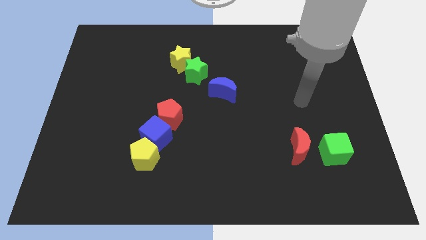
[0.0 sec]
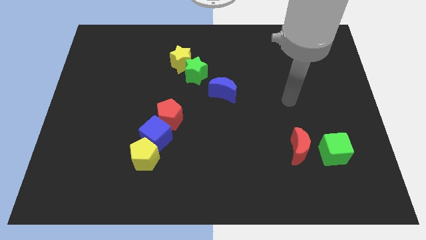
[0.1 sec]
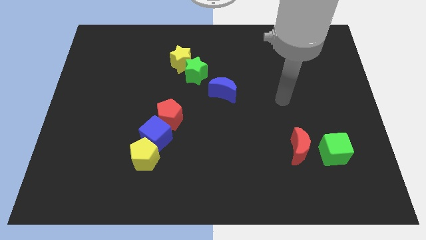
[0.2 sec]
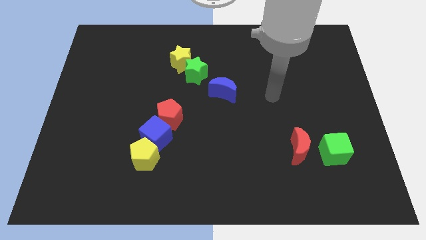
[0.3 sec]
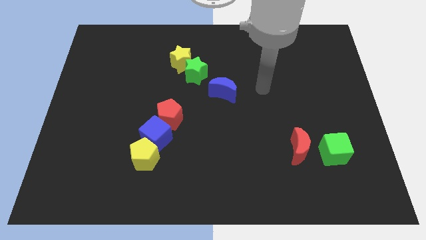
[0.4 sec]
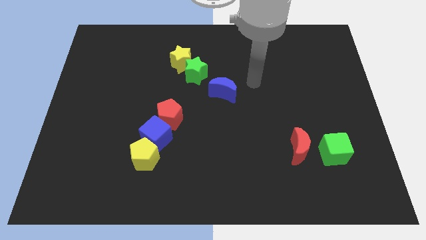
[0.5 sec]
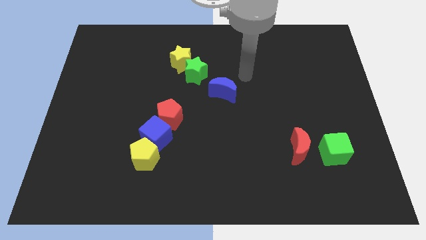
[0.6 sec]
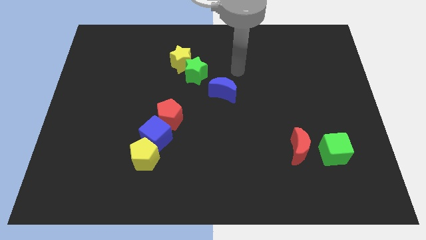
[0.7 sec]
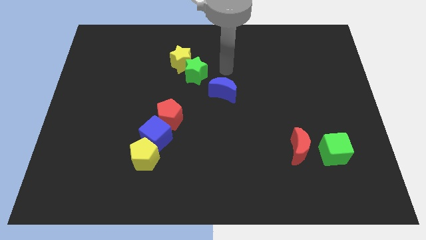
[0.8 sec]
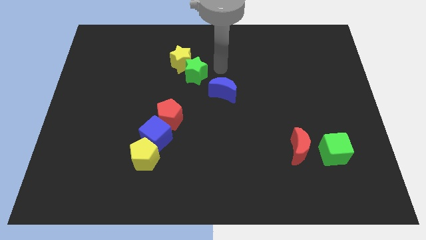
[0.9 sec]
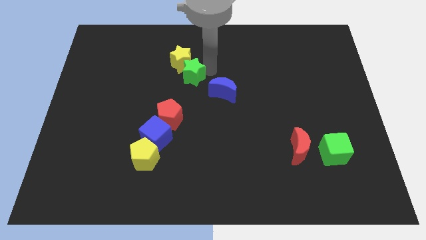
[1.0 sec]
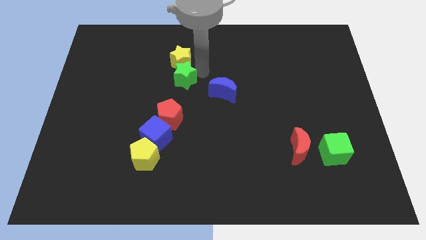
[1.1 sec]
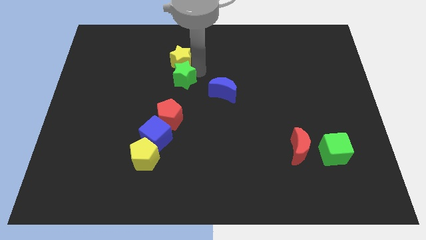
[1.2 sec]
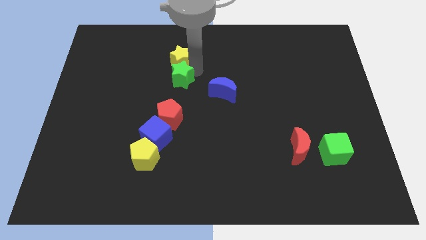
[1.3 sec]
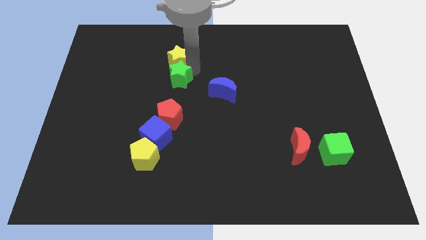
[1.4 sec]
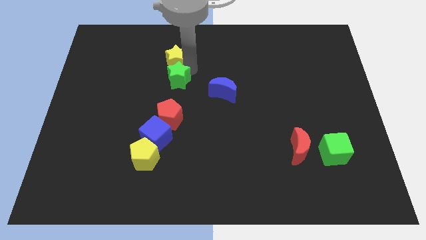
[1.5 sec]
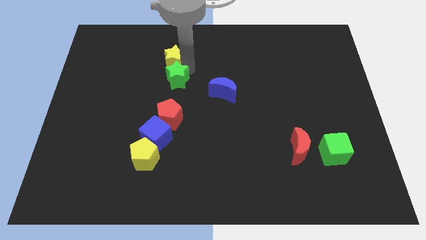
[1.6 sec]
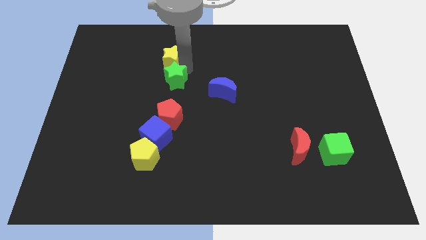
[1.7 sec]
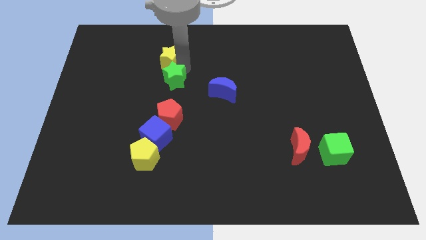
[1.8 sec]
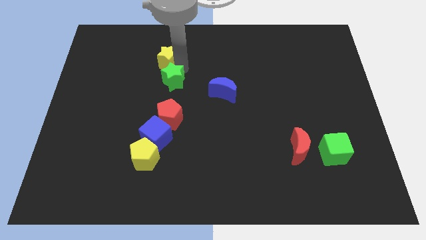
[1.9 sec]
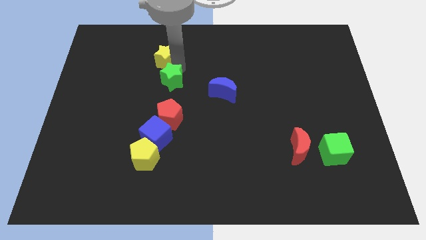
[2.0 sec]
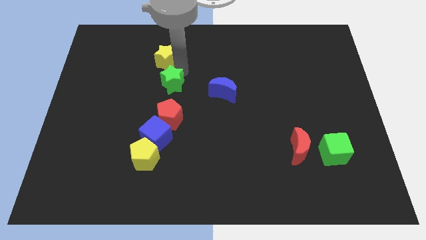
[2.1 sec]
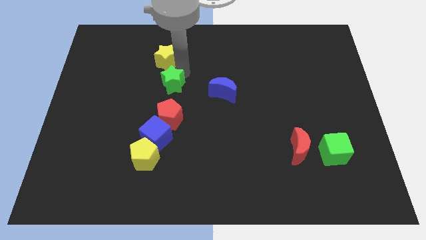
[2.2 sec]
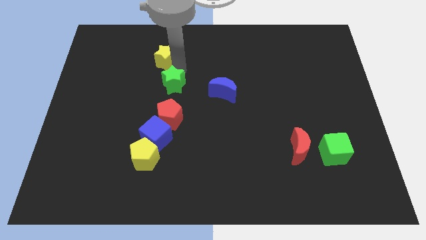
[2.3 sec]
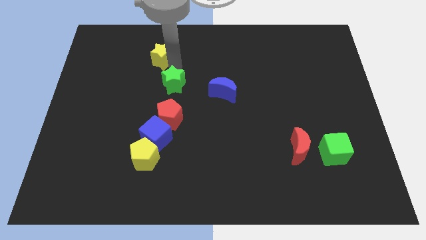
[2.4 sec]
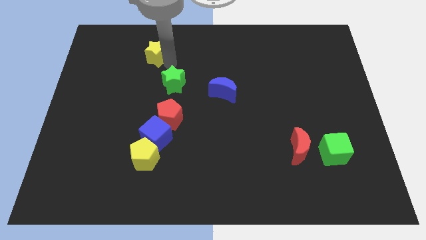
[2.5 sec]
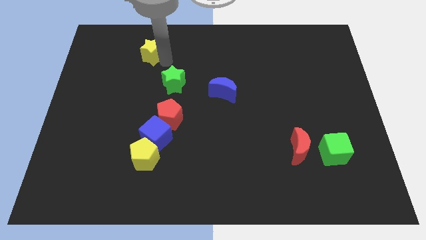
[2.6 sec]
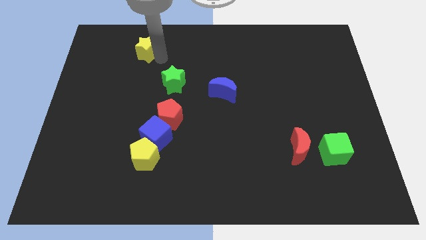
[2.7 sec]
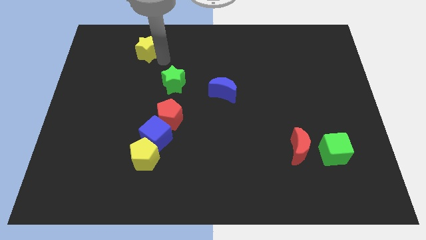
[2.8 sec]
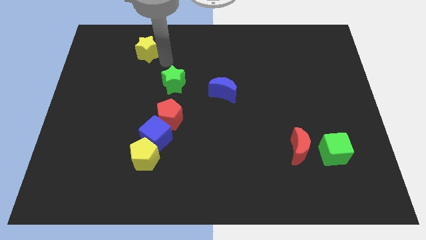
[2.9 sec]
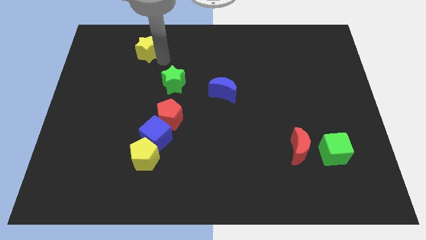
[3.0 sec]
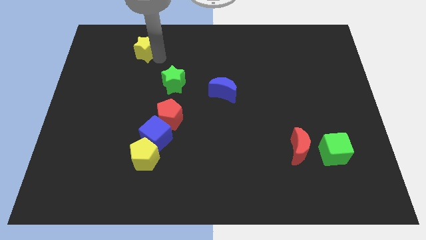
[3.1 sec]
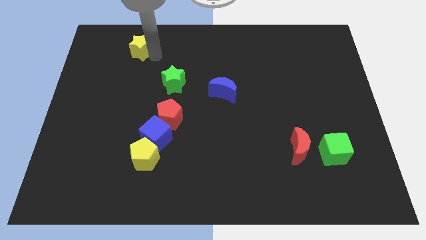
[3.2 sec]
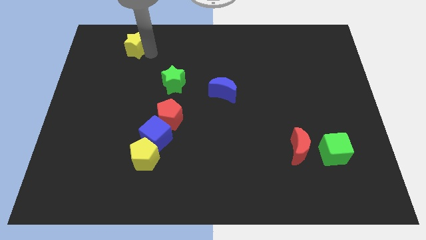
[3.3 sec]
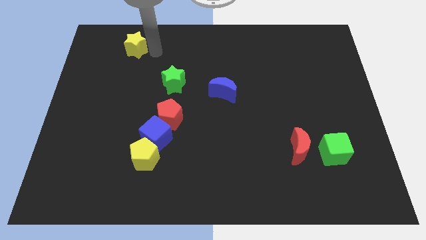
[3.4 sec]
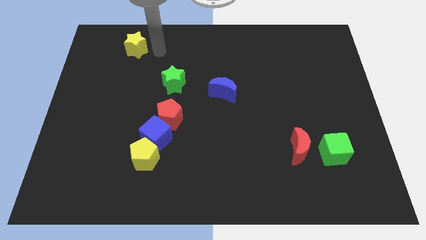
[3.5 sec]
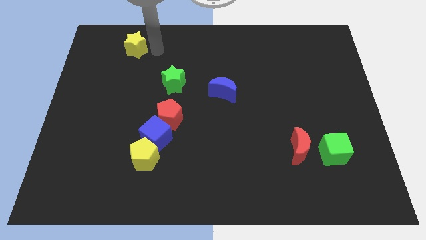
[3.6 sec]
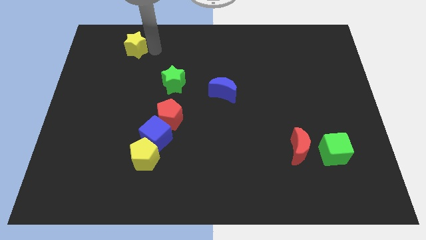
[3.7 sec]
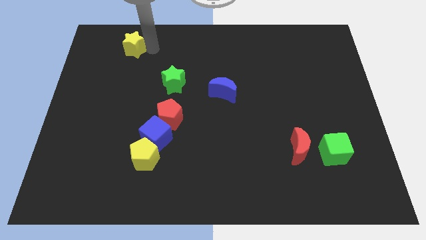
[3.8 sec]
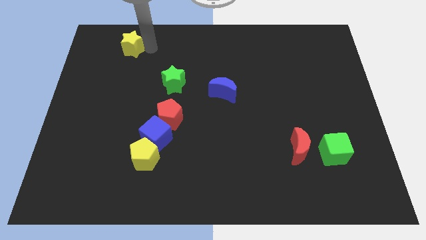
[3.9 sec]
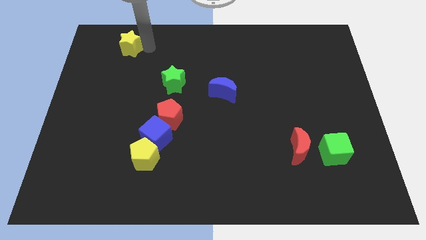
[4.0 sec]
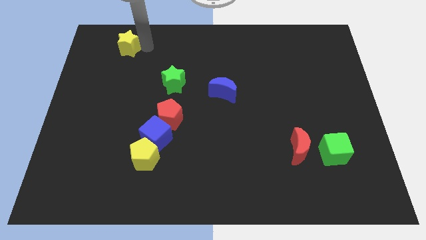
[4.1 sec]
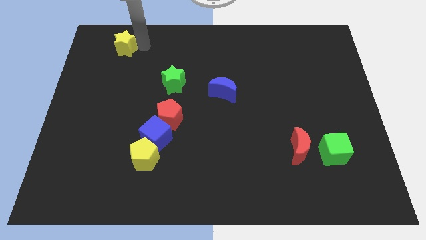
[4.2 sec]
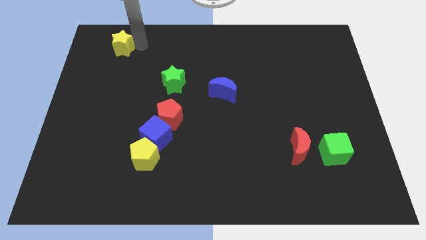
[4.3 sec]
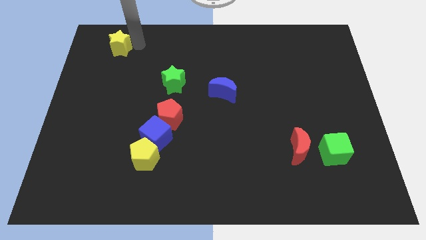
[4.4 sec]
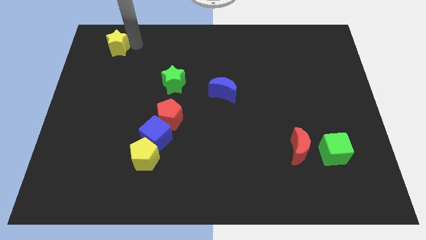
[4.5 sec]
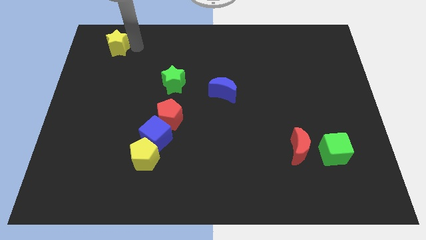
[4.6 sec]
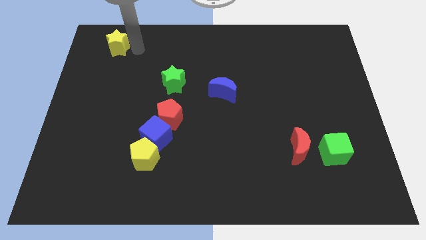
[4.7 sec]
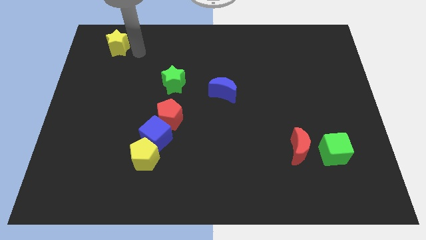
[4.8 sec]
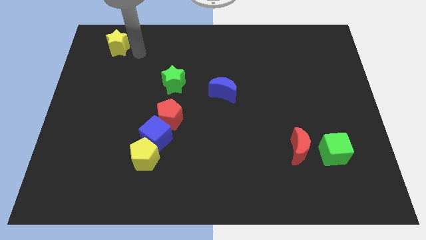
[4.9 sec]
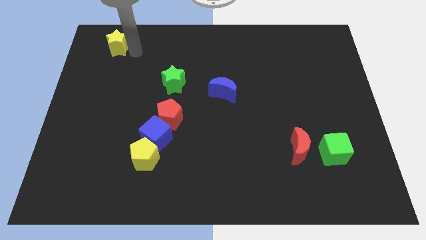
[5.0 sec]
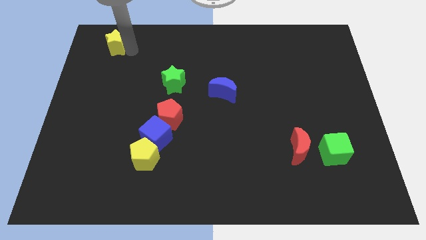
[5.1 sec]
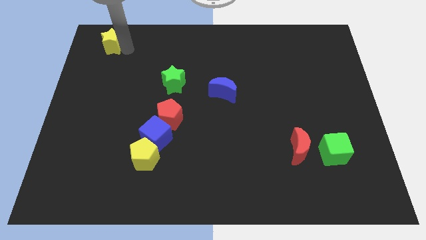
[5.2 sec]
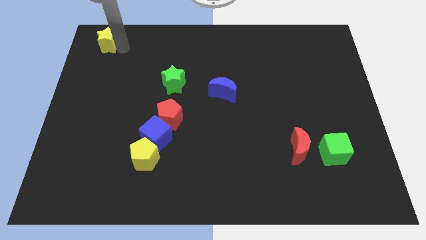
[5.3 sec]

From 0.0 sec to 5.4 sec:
move the yellow star to the top left corner

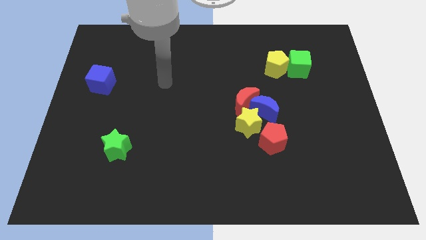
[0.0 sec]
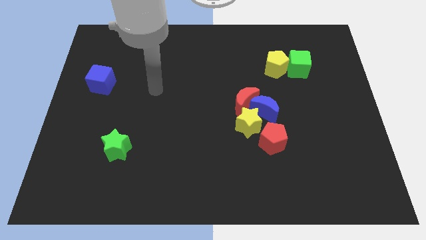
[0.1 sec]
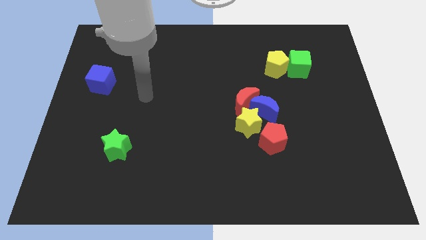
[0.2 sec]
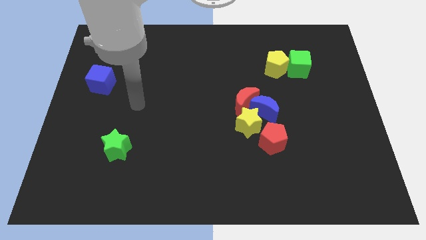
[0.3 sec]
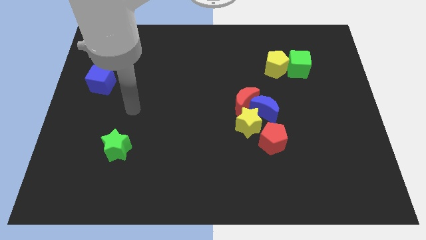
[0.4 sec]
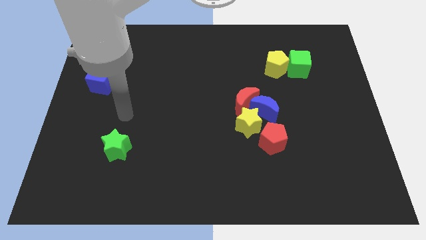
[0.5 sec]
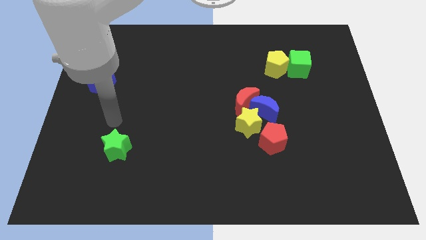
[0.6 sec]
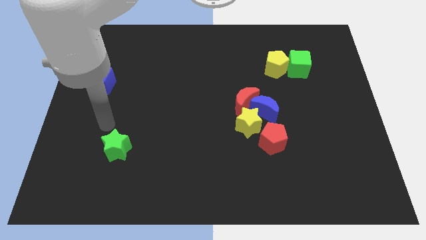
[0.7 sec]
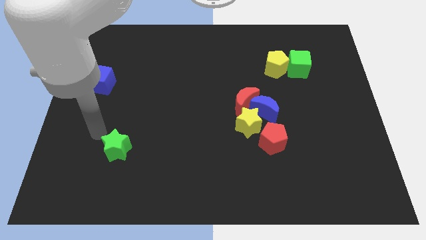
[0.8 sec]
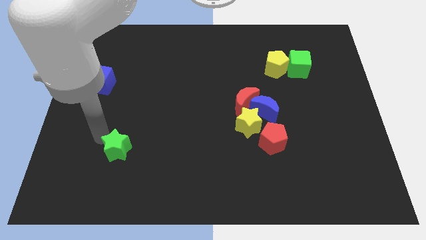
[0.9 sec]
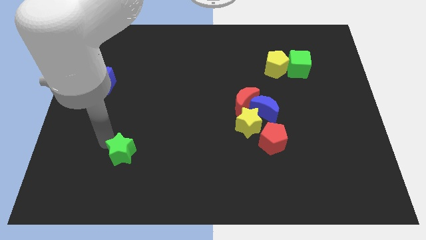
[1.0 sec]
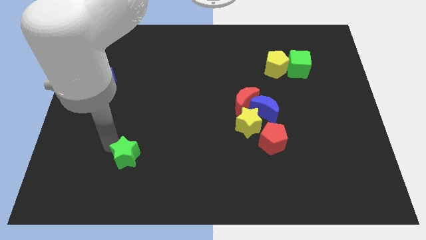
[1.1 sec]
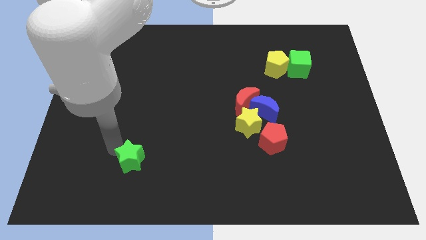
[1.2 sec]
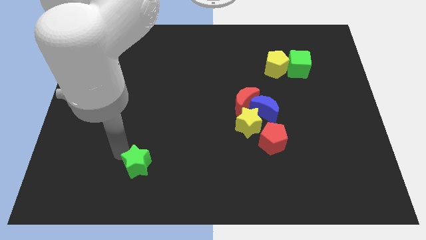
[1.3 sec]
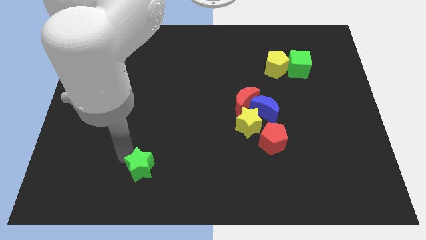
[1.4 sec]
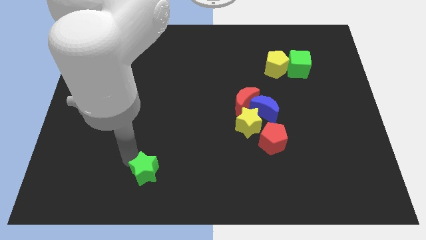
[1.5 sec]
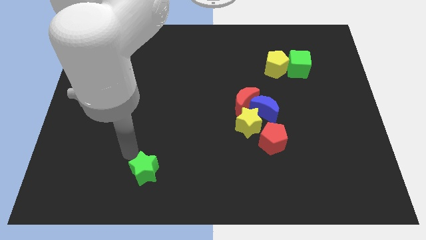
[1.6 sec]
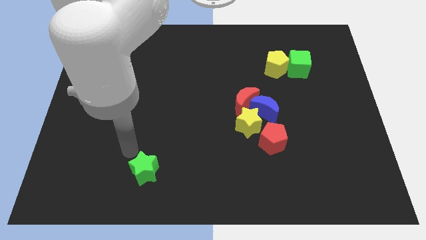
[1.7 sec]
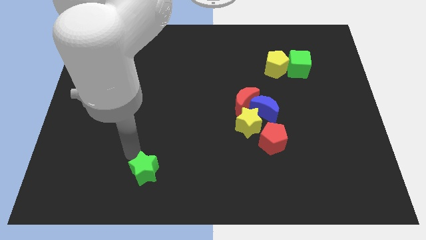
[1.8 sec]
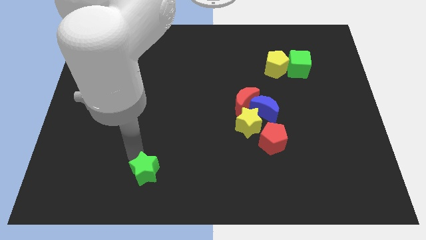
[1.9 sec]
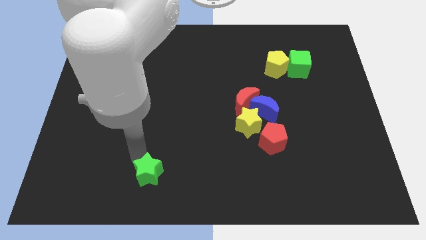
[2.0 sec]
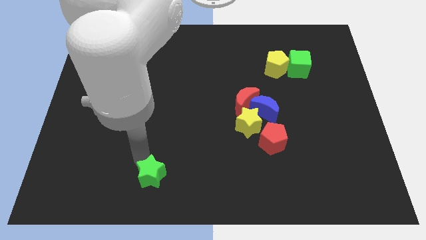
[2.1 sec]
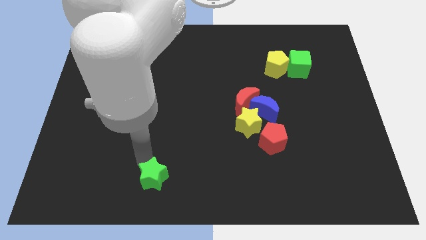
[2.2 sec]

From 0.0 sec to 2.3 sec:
slide the green star to the bottom
